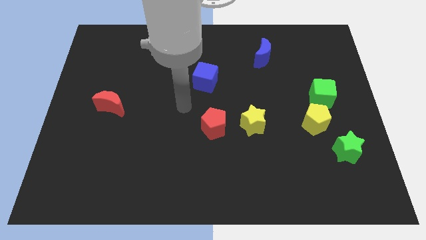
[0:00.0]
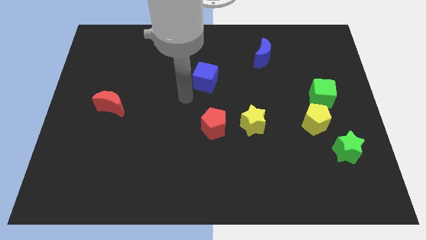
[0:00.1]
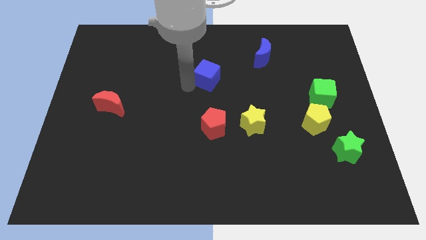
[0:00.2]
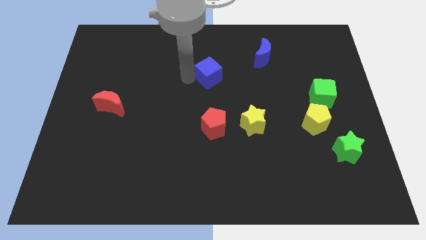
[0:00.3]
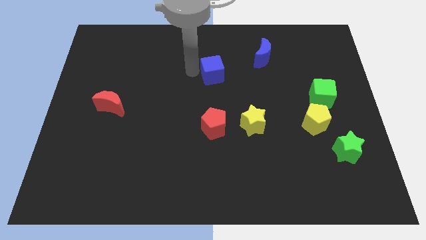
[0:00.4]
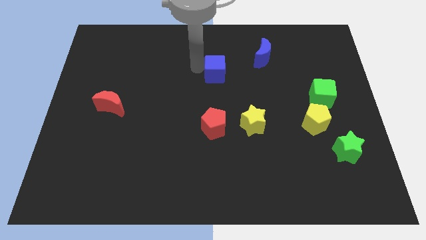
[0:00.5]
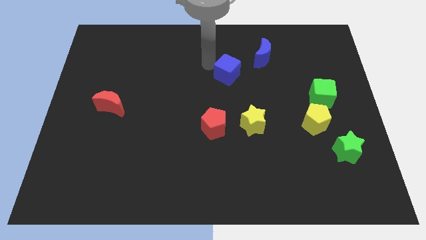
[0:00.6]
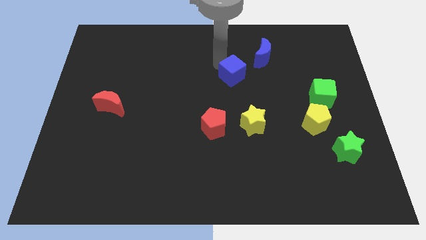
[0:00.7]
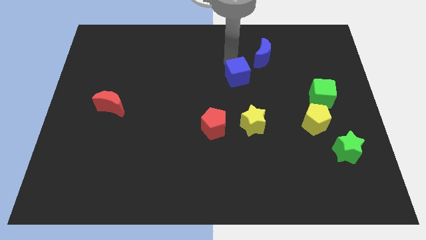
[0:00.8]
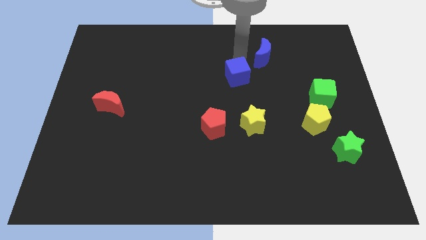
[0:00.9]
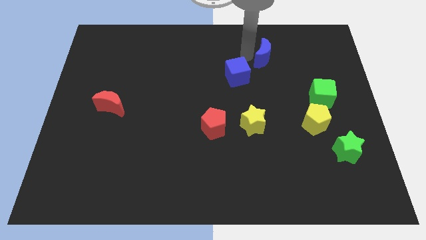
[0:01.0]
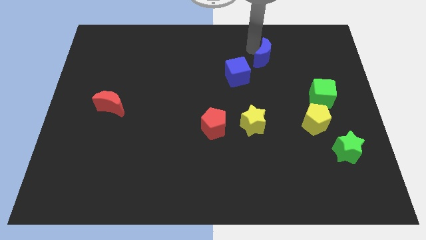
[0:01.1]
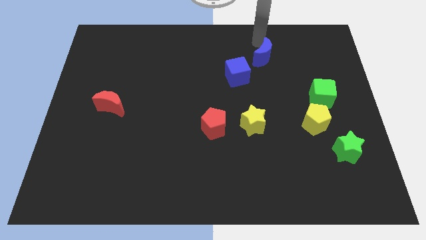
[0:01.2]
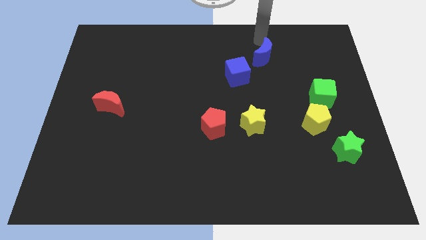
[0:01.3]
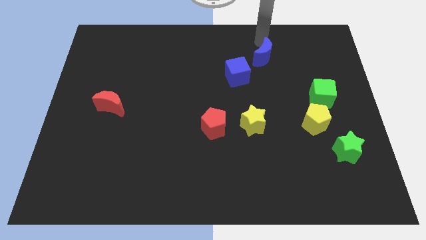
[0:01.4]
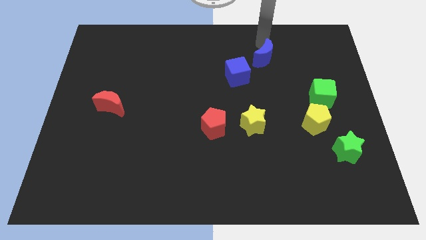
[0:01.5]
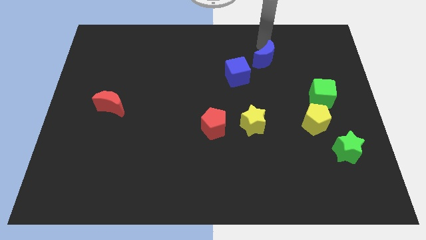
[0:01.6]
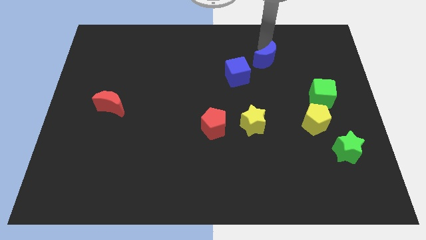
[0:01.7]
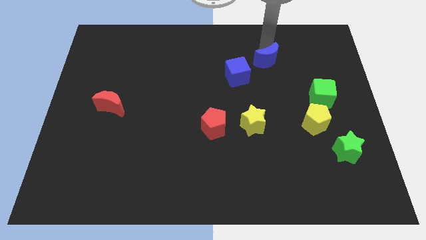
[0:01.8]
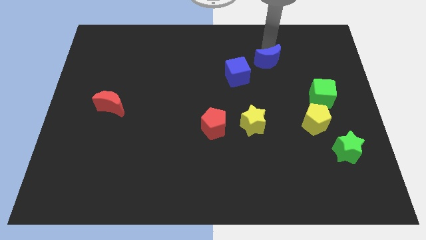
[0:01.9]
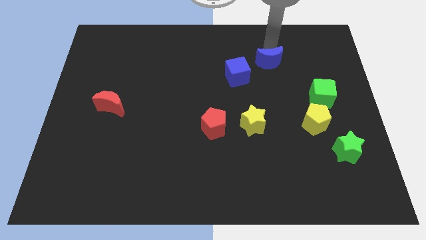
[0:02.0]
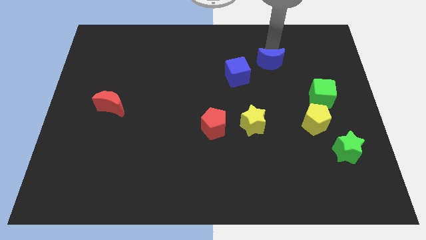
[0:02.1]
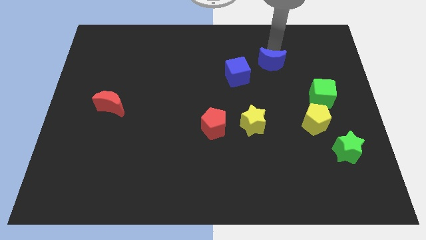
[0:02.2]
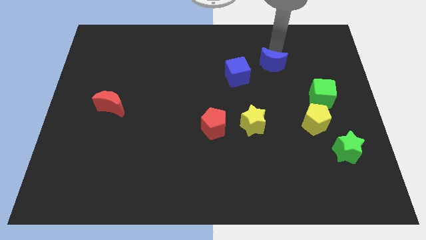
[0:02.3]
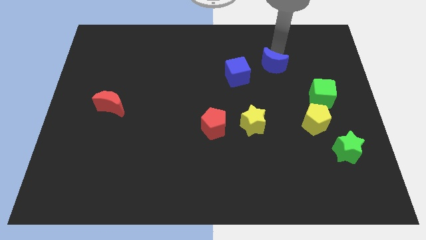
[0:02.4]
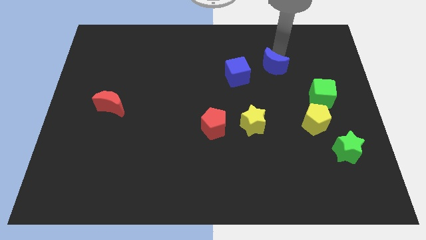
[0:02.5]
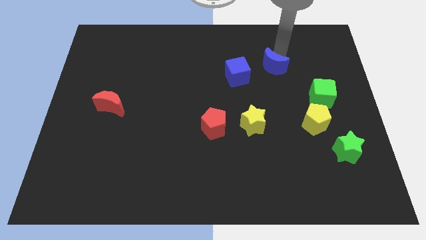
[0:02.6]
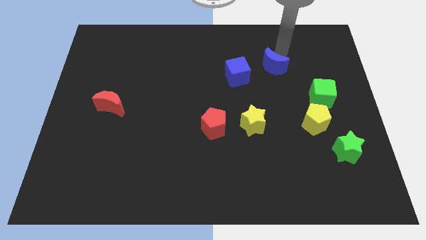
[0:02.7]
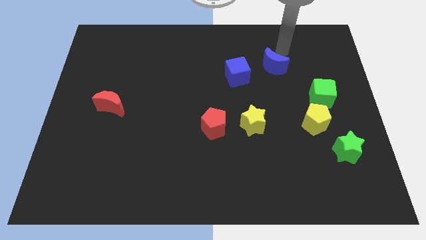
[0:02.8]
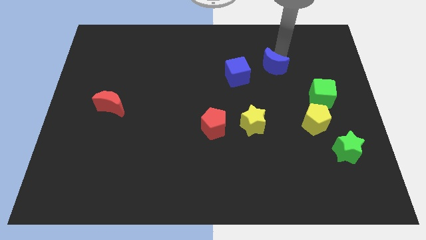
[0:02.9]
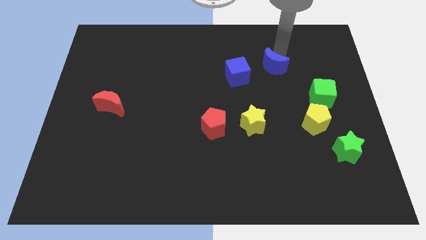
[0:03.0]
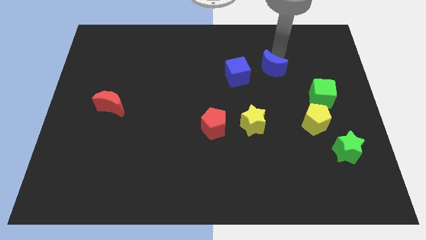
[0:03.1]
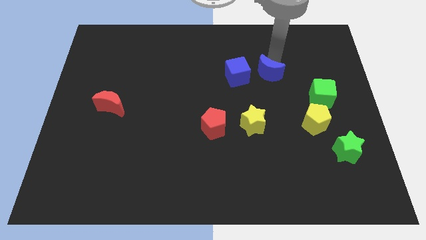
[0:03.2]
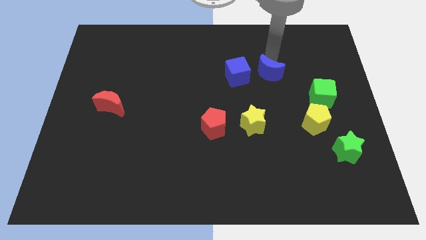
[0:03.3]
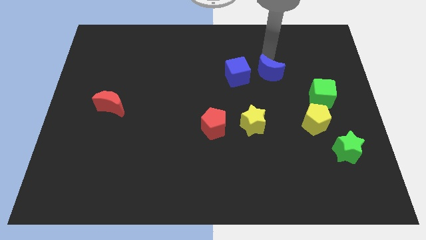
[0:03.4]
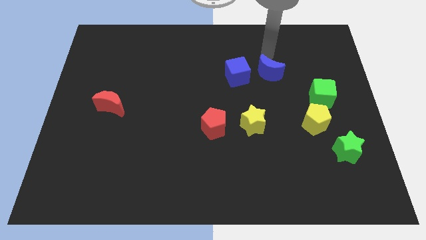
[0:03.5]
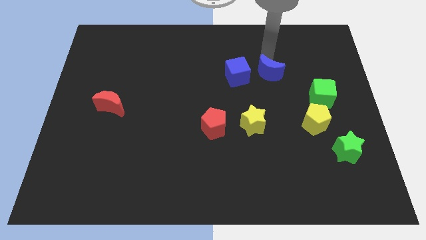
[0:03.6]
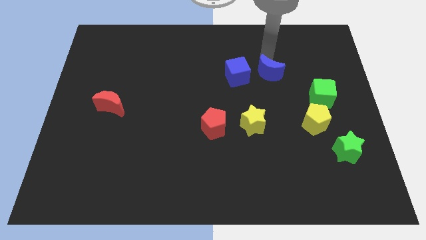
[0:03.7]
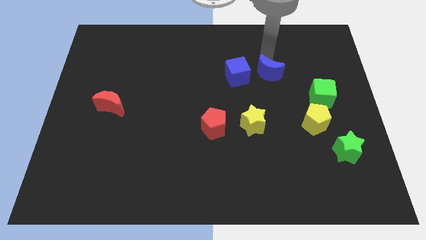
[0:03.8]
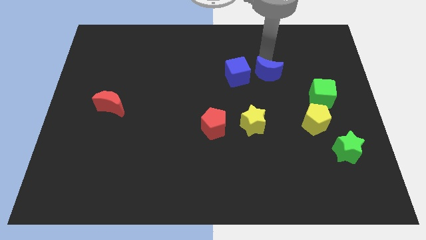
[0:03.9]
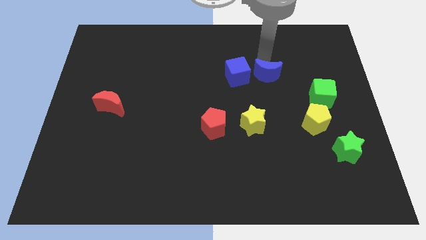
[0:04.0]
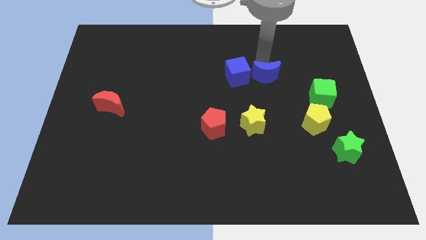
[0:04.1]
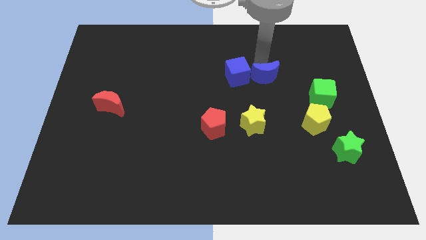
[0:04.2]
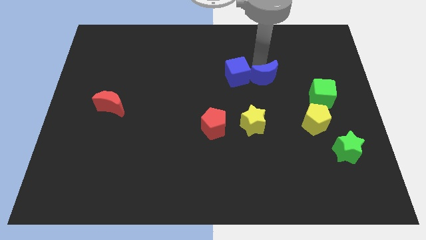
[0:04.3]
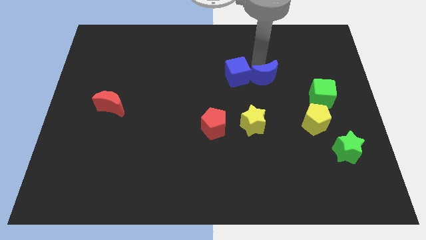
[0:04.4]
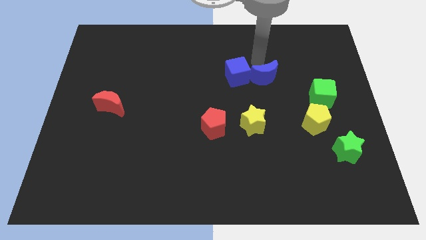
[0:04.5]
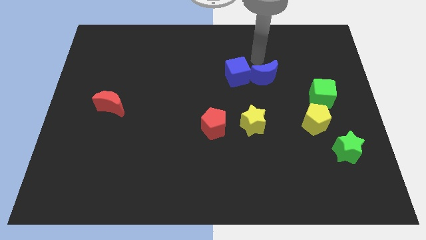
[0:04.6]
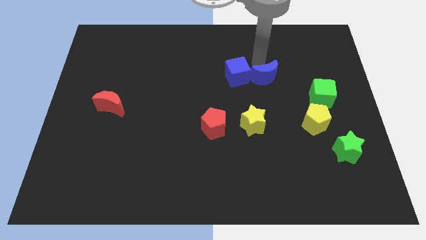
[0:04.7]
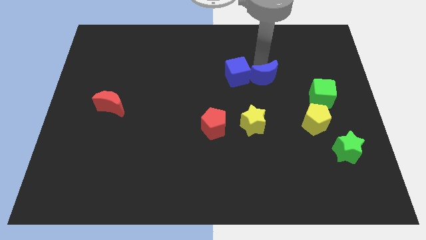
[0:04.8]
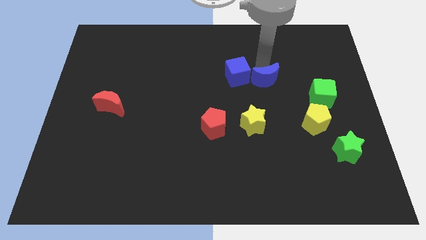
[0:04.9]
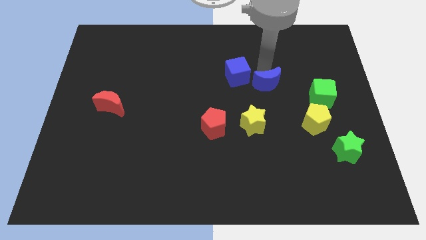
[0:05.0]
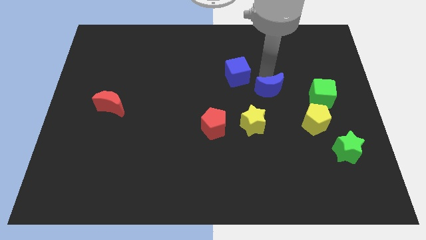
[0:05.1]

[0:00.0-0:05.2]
move the blue moon to the top right side of the yellow star

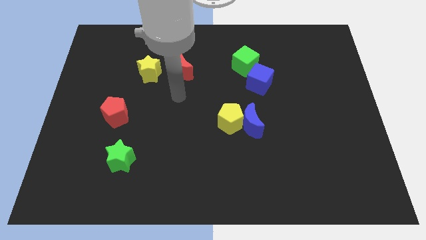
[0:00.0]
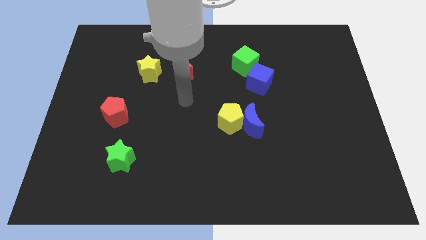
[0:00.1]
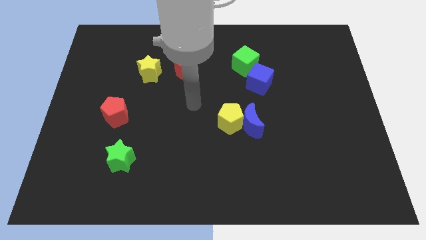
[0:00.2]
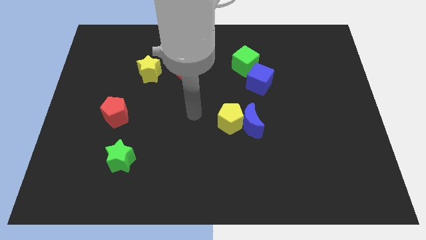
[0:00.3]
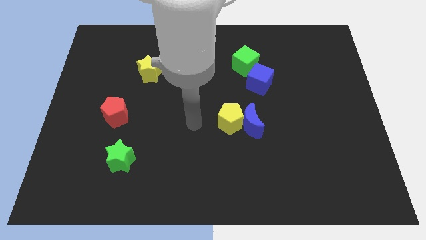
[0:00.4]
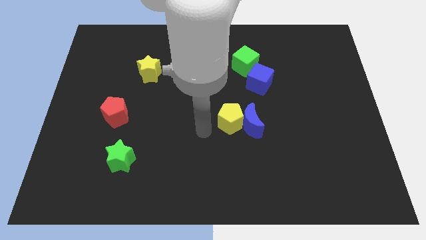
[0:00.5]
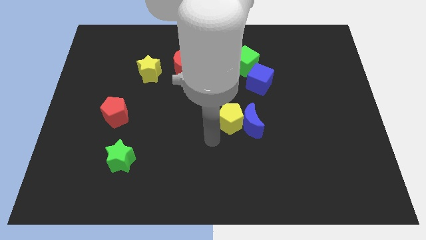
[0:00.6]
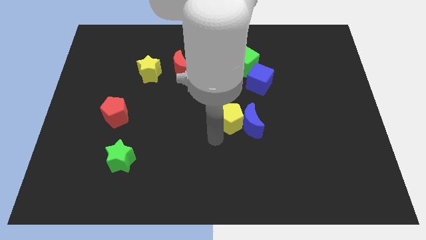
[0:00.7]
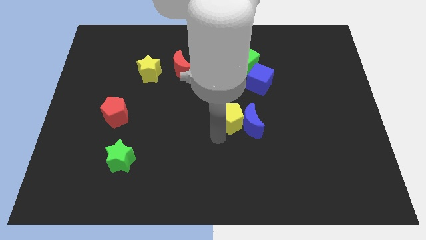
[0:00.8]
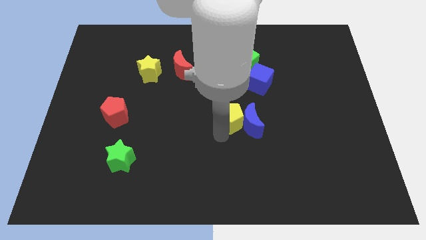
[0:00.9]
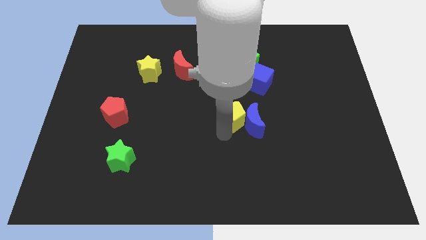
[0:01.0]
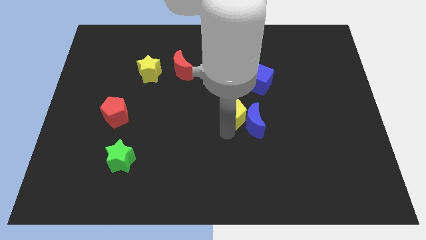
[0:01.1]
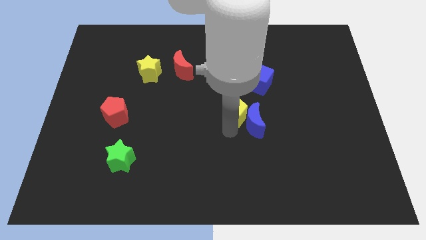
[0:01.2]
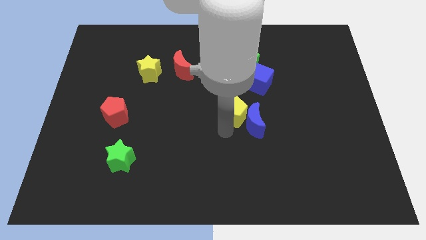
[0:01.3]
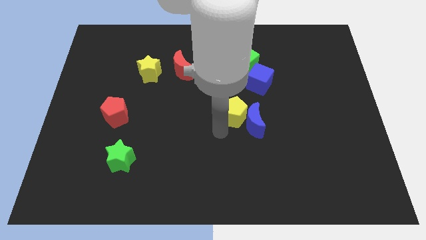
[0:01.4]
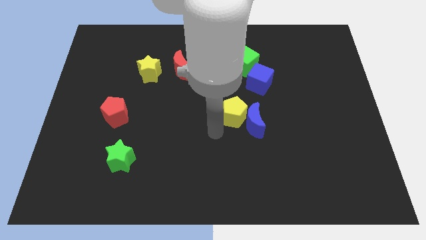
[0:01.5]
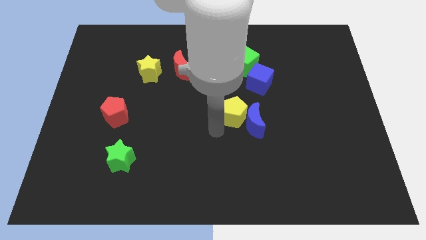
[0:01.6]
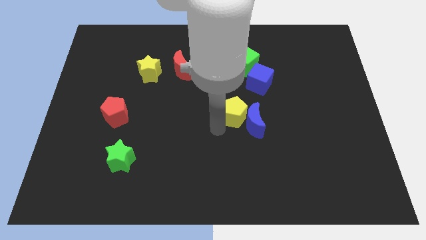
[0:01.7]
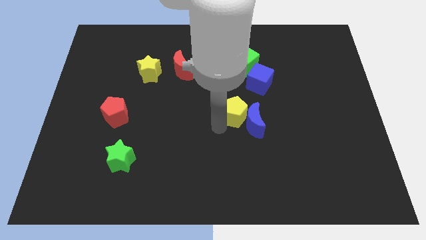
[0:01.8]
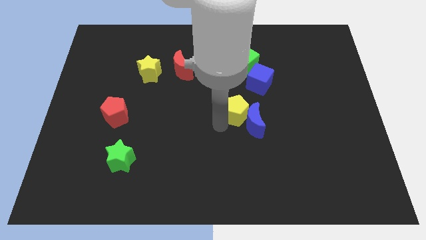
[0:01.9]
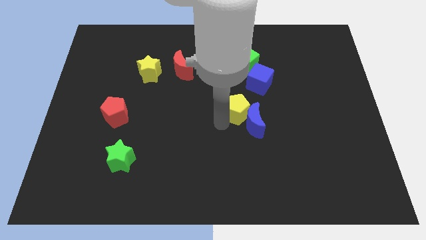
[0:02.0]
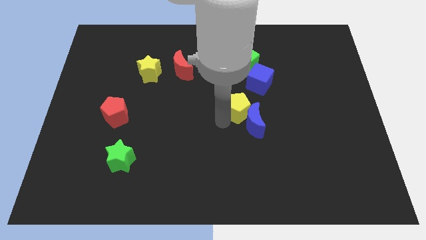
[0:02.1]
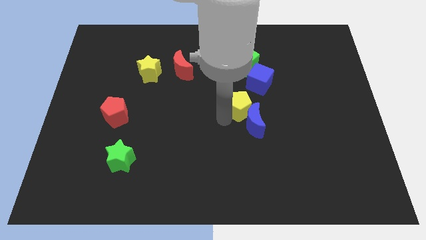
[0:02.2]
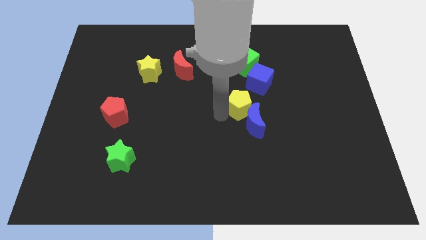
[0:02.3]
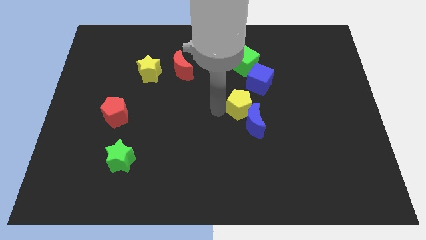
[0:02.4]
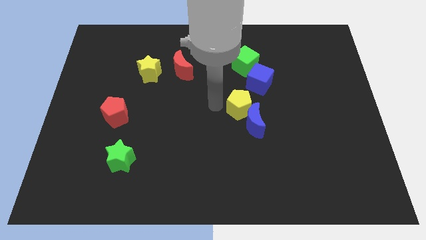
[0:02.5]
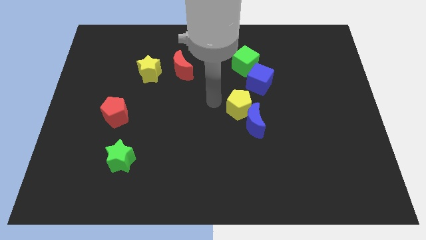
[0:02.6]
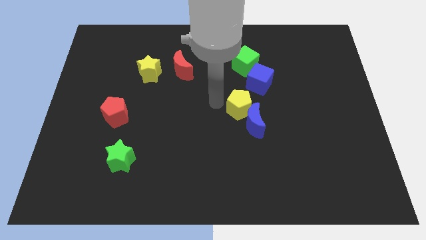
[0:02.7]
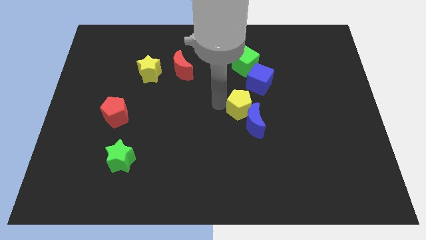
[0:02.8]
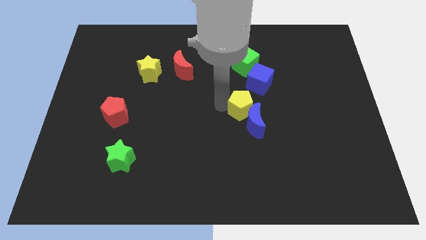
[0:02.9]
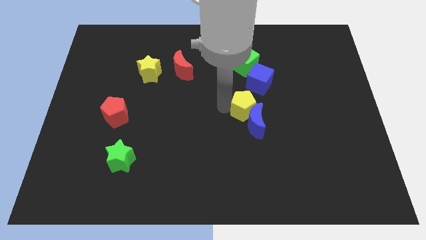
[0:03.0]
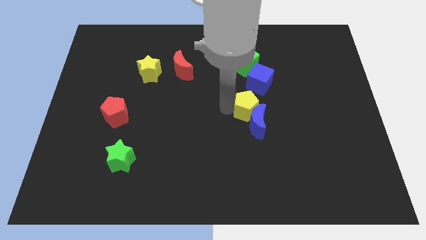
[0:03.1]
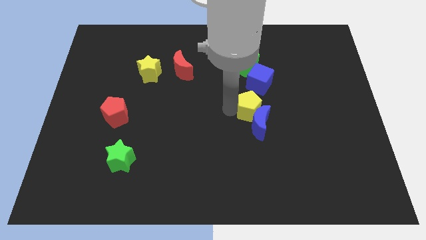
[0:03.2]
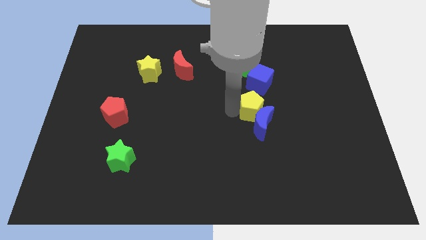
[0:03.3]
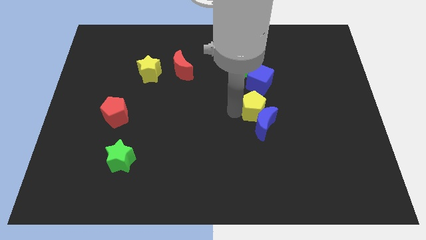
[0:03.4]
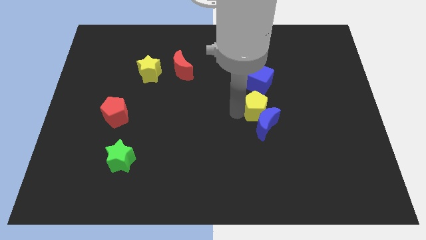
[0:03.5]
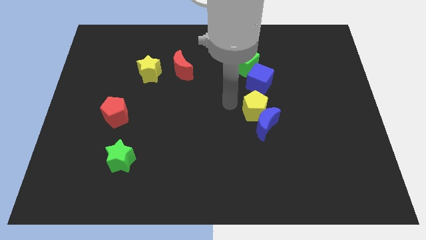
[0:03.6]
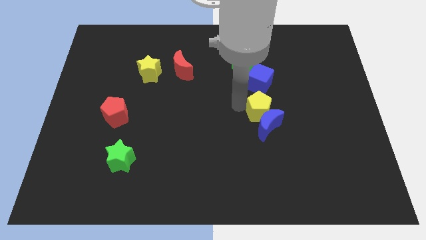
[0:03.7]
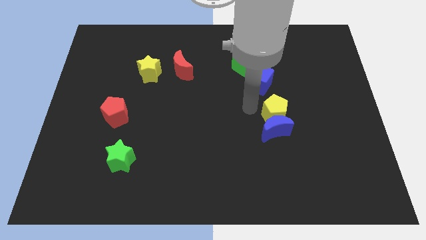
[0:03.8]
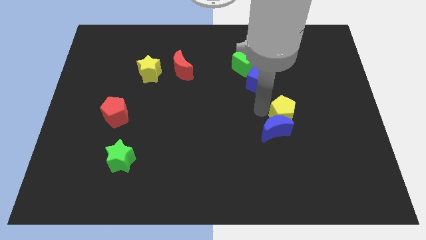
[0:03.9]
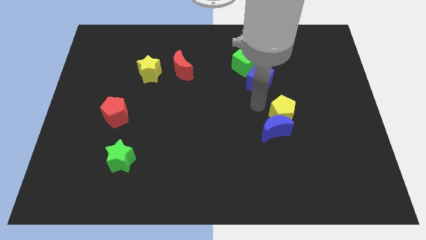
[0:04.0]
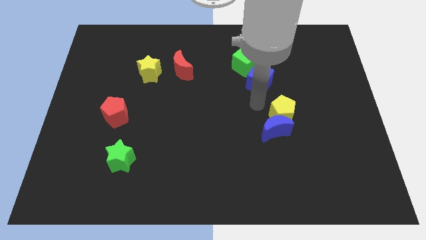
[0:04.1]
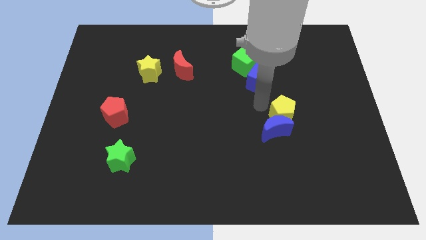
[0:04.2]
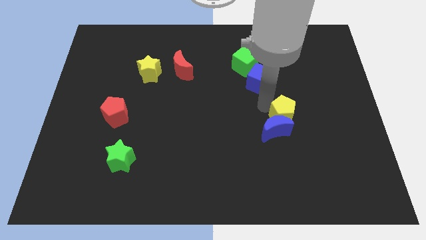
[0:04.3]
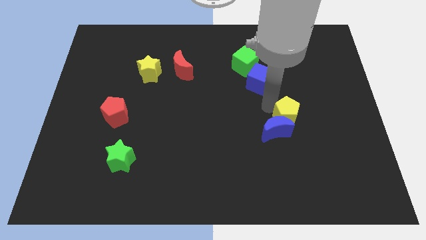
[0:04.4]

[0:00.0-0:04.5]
slide the yellow pentagon to the right side of the blue moon
